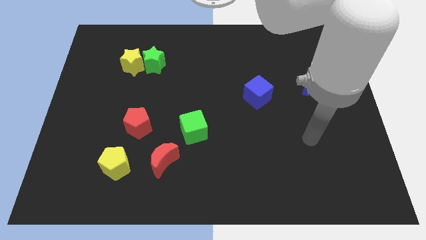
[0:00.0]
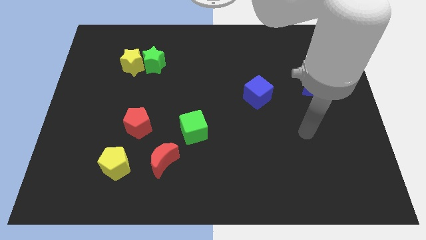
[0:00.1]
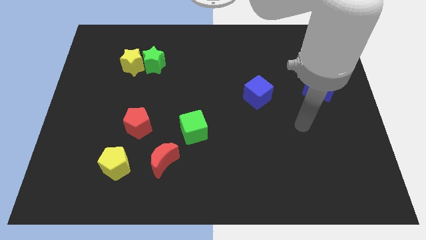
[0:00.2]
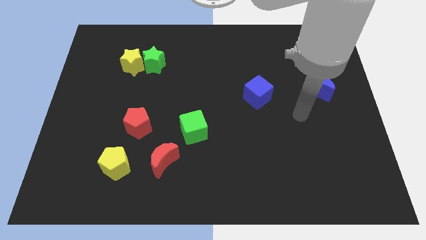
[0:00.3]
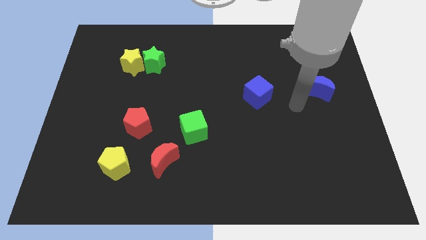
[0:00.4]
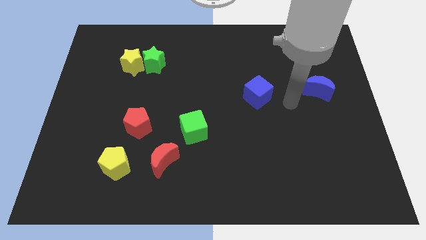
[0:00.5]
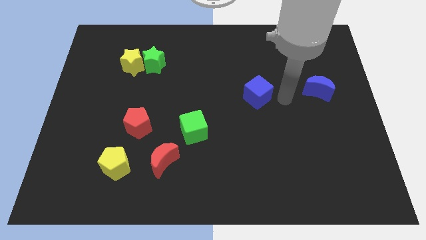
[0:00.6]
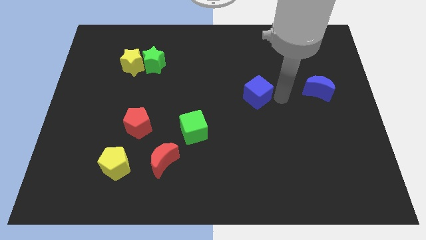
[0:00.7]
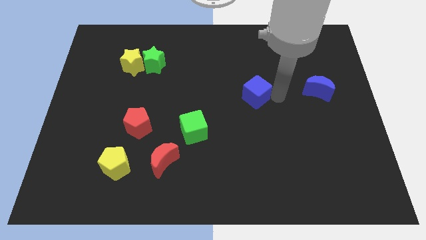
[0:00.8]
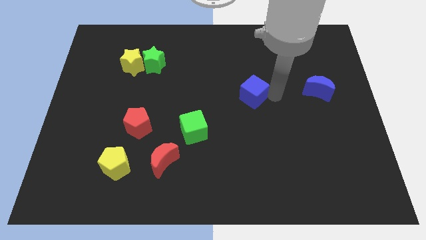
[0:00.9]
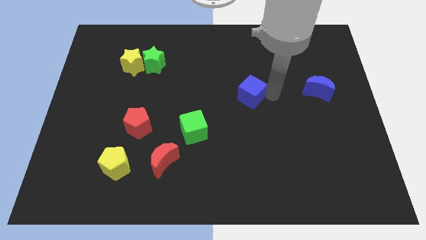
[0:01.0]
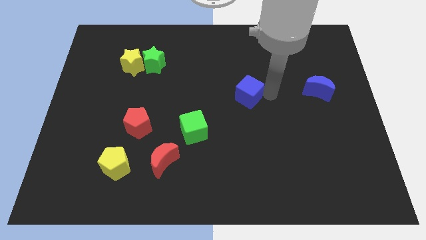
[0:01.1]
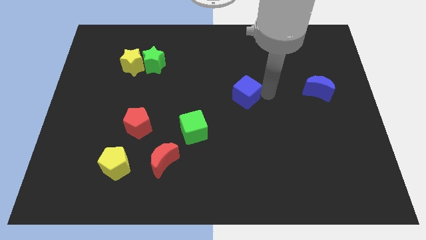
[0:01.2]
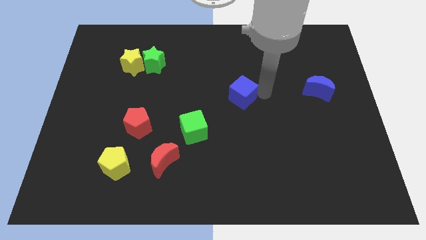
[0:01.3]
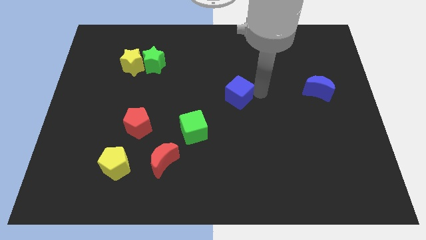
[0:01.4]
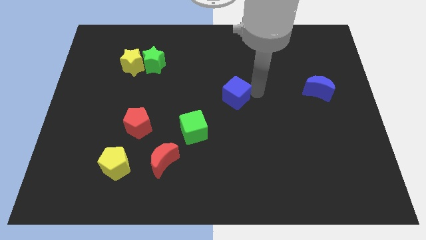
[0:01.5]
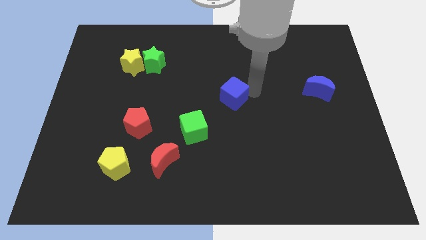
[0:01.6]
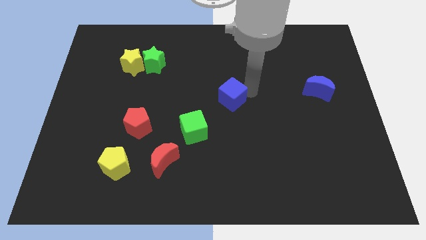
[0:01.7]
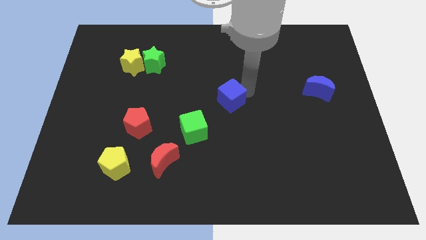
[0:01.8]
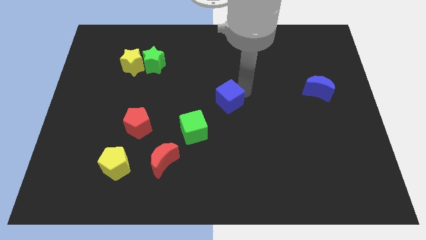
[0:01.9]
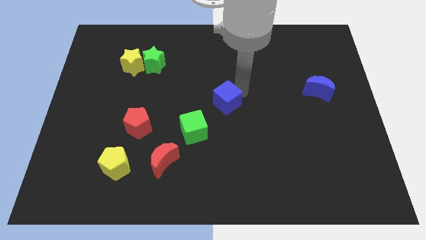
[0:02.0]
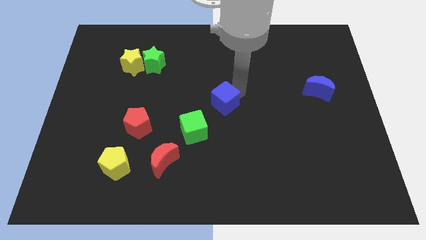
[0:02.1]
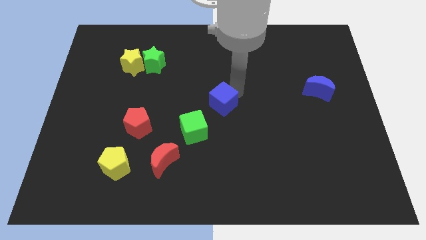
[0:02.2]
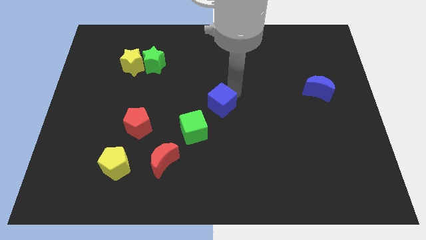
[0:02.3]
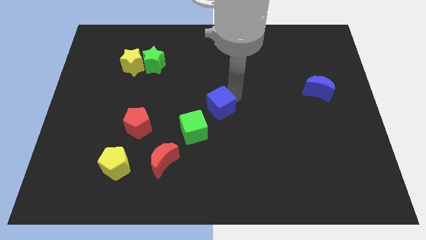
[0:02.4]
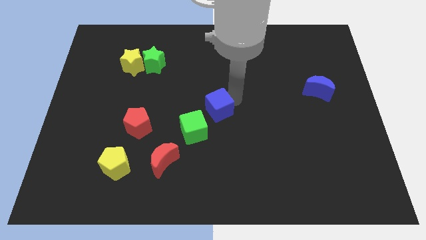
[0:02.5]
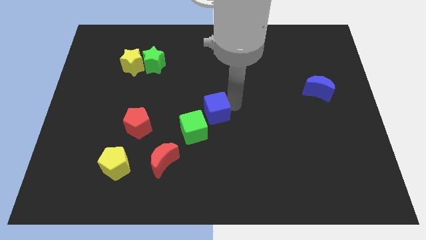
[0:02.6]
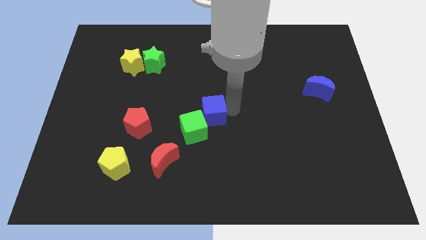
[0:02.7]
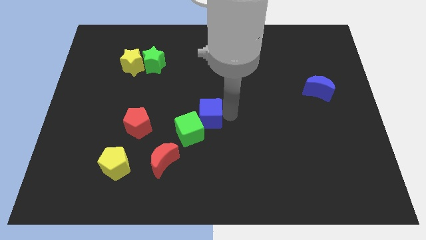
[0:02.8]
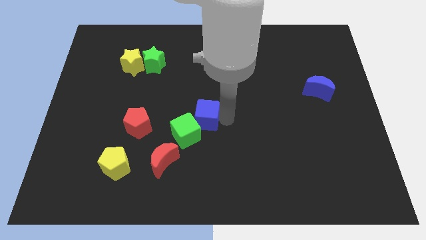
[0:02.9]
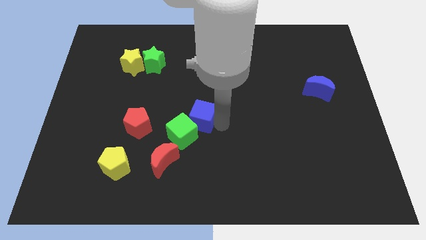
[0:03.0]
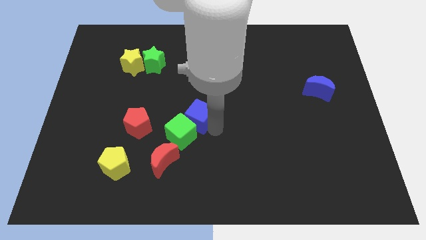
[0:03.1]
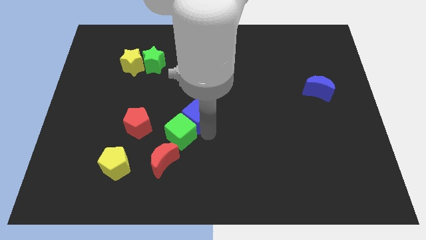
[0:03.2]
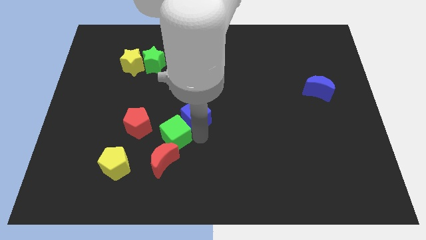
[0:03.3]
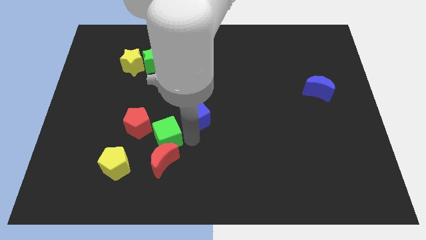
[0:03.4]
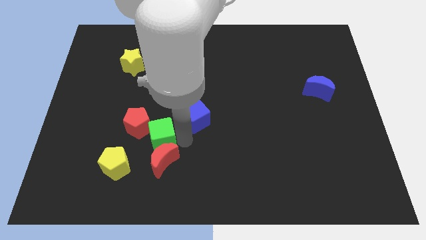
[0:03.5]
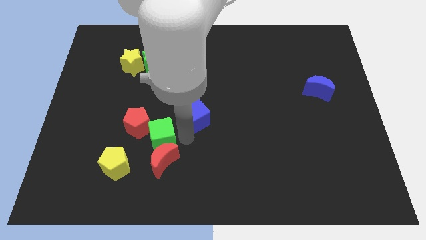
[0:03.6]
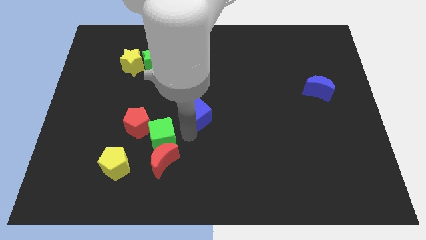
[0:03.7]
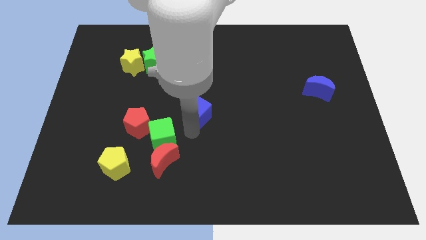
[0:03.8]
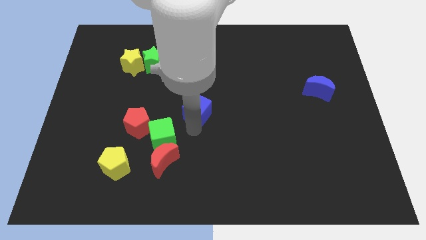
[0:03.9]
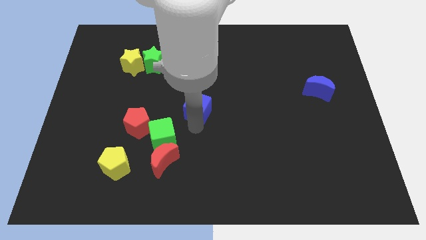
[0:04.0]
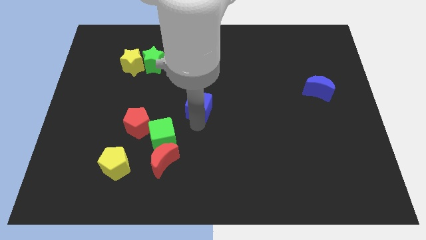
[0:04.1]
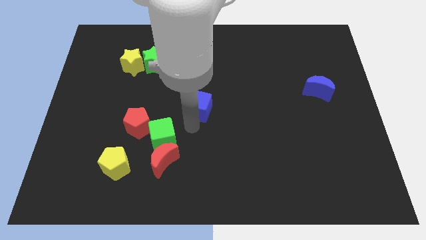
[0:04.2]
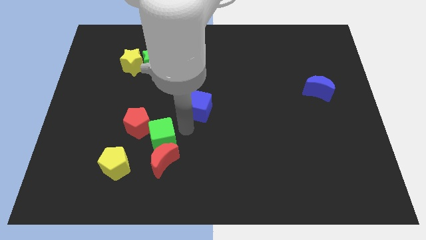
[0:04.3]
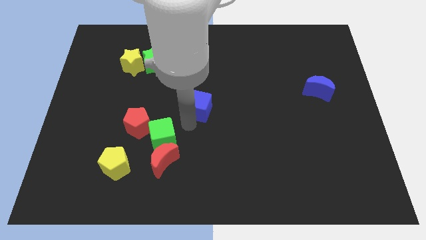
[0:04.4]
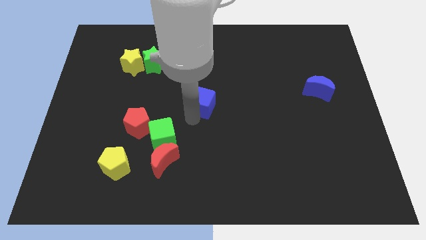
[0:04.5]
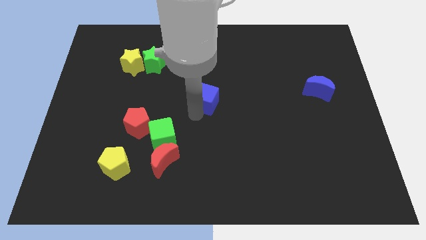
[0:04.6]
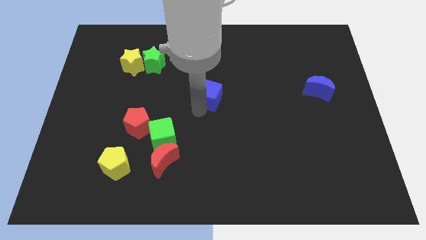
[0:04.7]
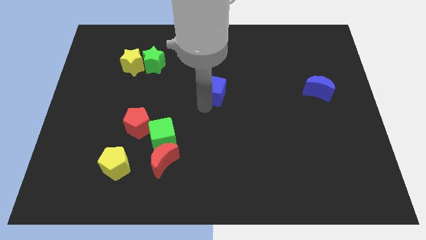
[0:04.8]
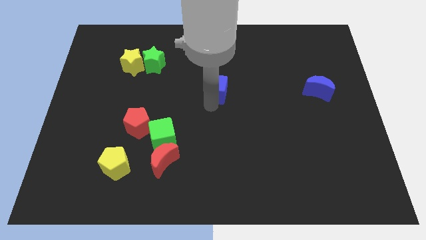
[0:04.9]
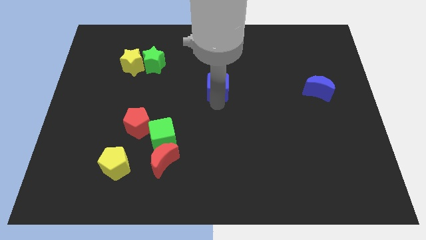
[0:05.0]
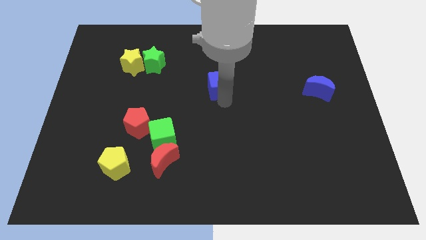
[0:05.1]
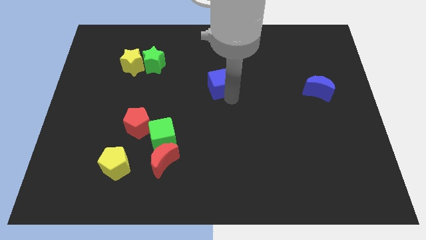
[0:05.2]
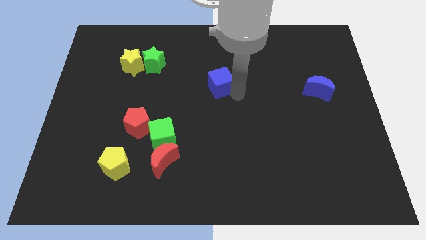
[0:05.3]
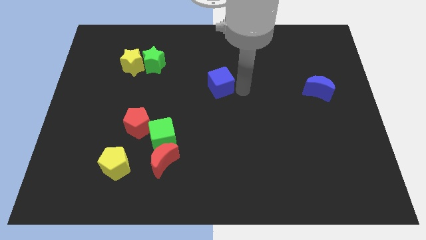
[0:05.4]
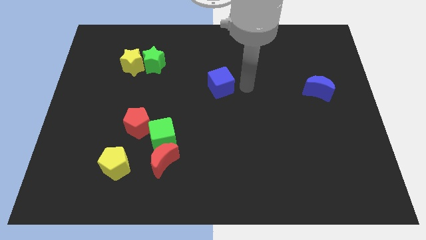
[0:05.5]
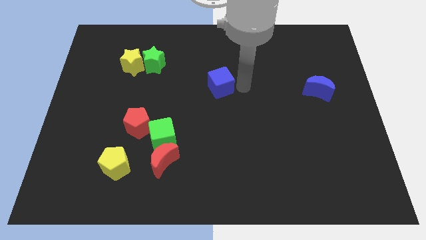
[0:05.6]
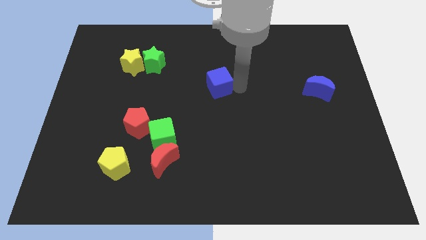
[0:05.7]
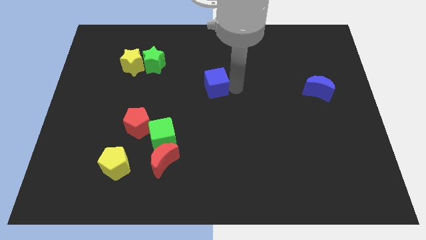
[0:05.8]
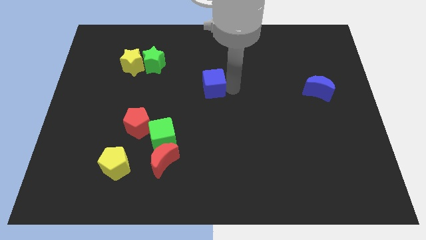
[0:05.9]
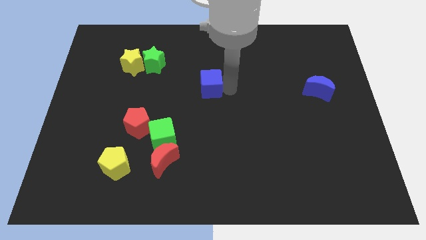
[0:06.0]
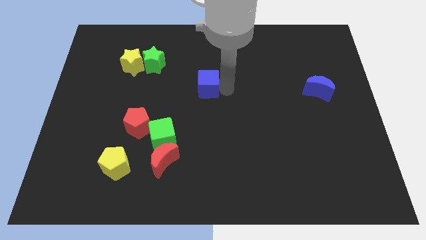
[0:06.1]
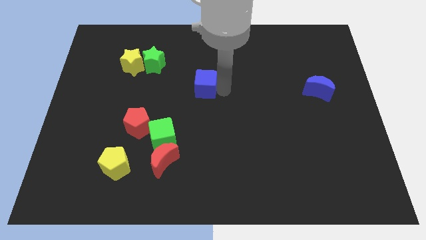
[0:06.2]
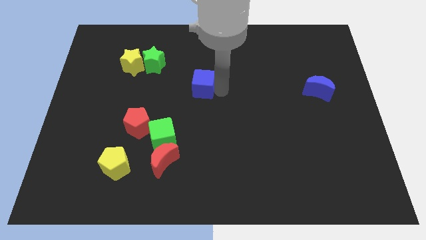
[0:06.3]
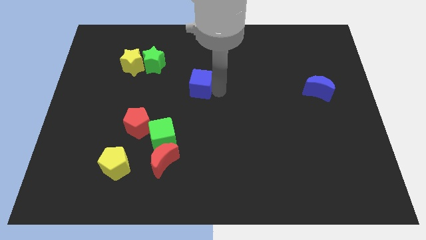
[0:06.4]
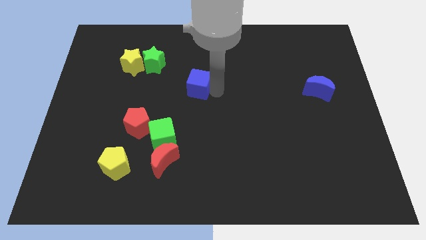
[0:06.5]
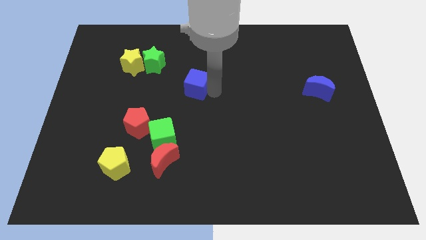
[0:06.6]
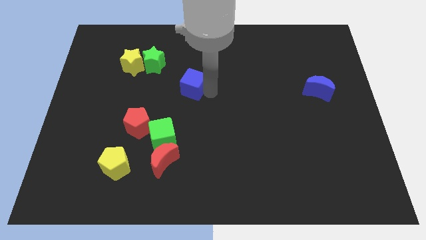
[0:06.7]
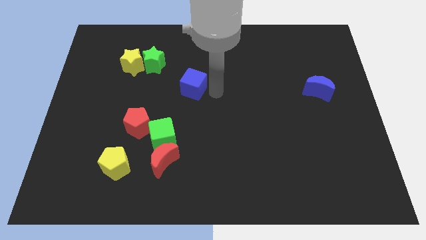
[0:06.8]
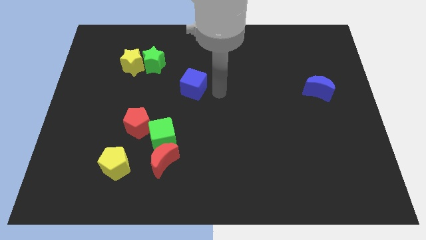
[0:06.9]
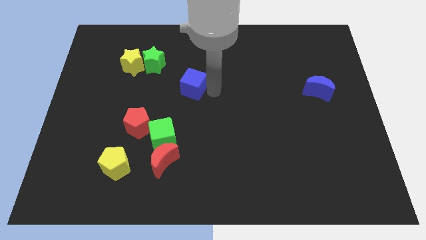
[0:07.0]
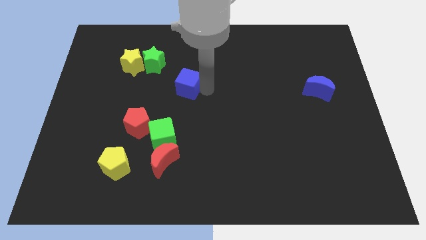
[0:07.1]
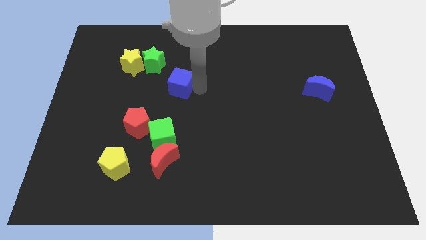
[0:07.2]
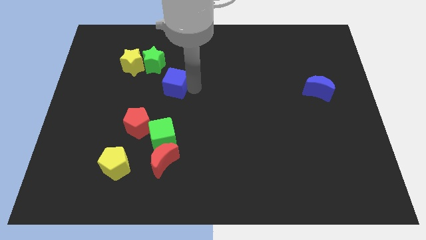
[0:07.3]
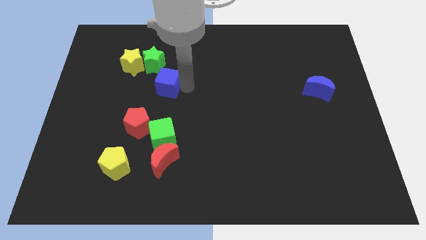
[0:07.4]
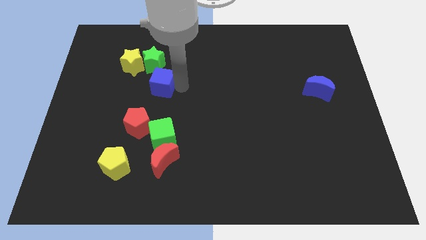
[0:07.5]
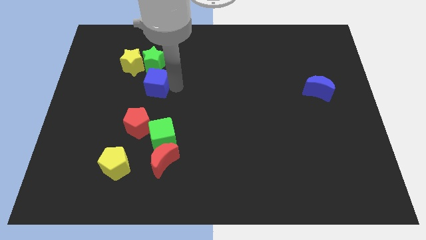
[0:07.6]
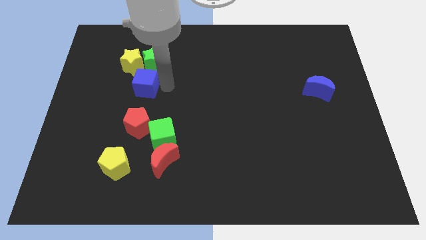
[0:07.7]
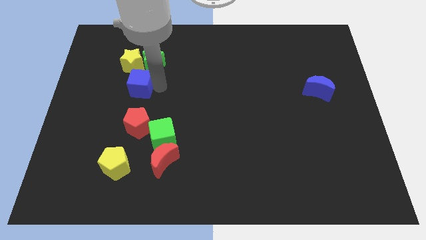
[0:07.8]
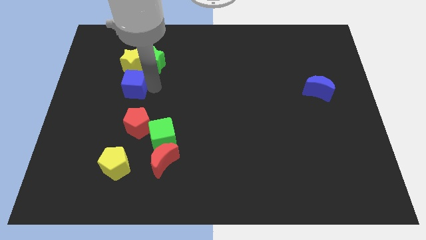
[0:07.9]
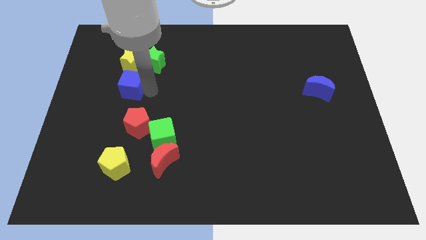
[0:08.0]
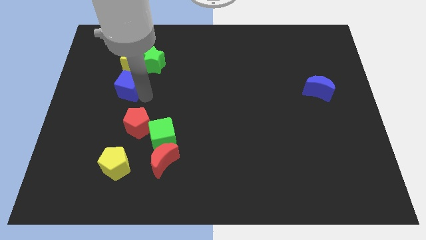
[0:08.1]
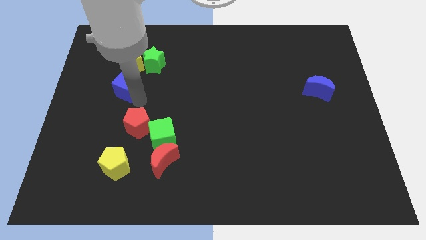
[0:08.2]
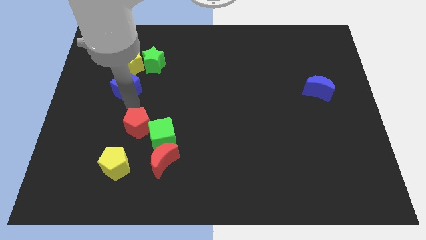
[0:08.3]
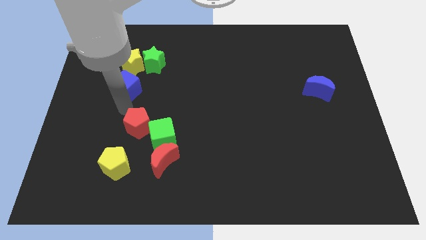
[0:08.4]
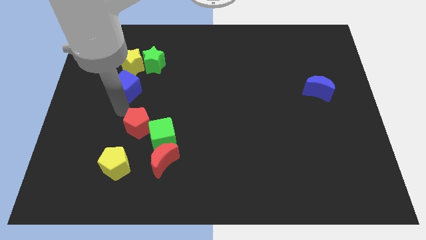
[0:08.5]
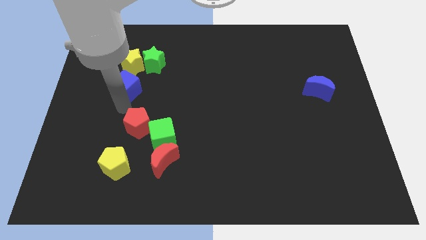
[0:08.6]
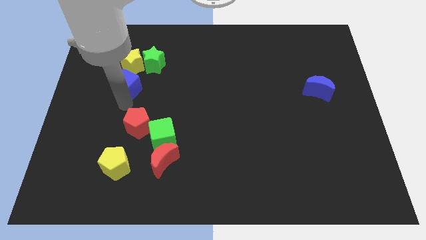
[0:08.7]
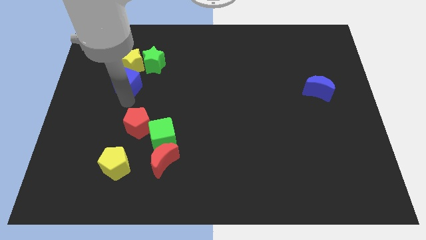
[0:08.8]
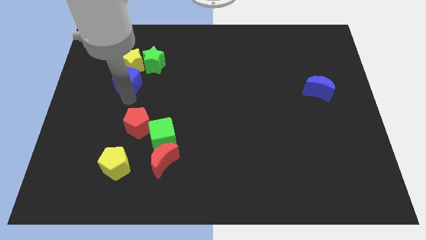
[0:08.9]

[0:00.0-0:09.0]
push the blue cube to the yellow star
